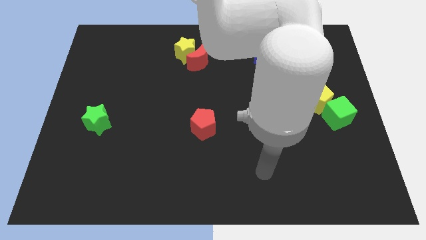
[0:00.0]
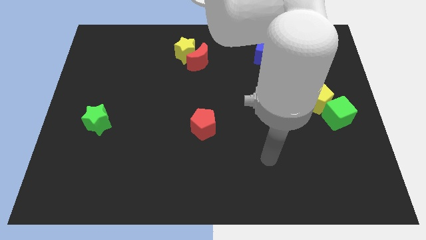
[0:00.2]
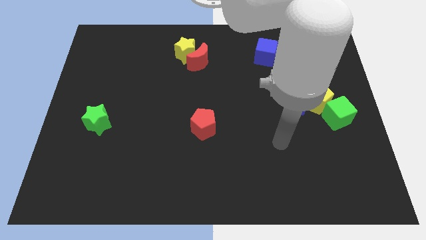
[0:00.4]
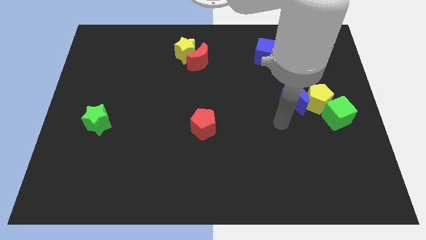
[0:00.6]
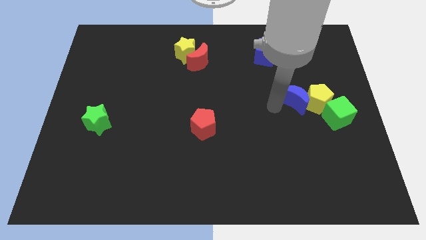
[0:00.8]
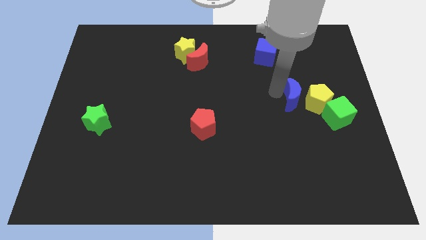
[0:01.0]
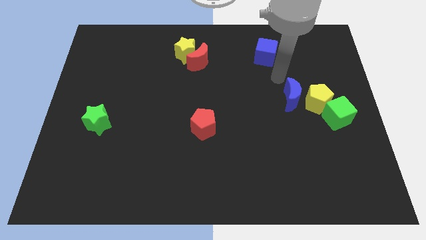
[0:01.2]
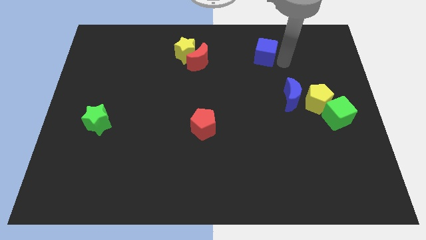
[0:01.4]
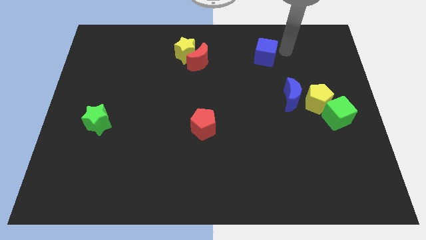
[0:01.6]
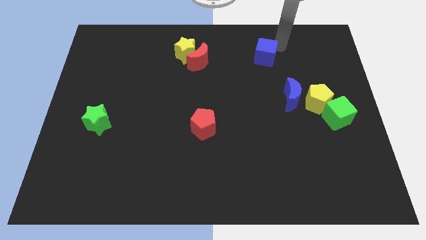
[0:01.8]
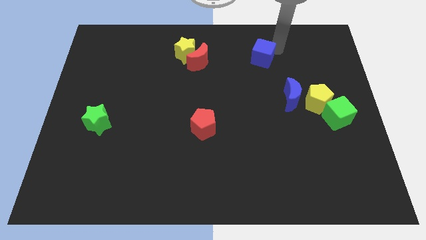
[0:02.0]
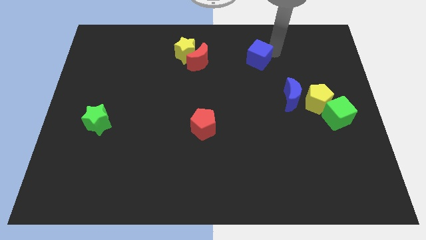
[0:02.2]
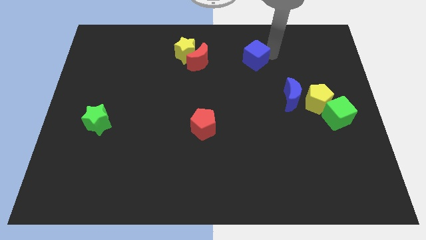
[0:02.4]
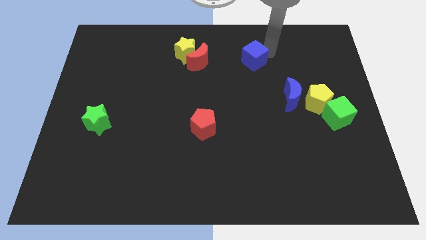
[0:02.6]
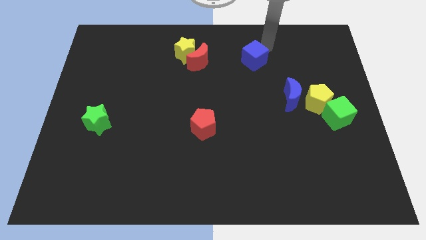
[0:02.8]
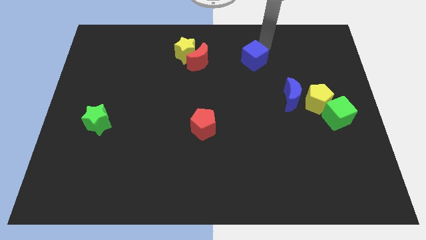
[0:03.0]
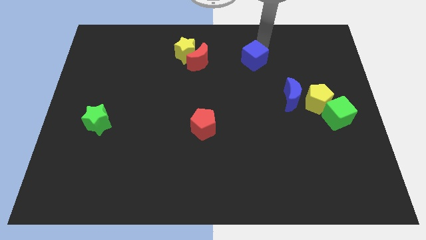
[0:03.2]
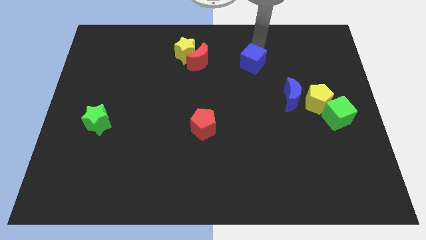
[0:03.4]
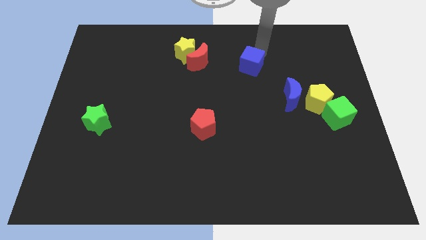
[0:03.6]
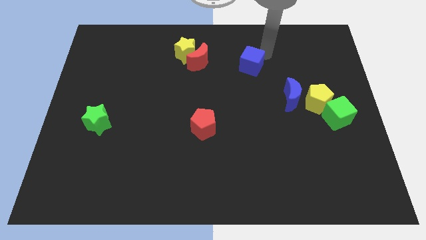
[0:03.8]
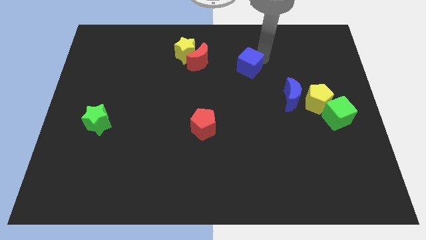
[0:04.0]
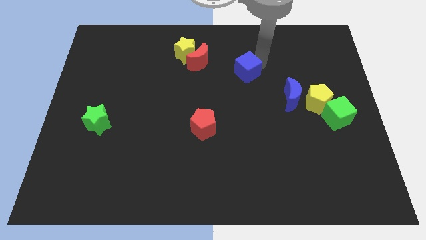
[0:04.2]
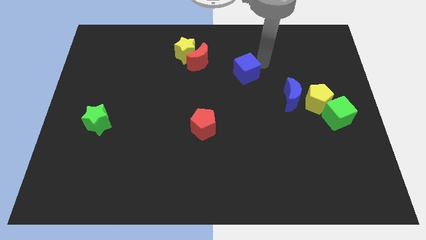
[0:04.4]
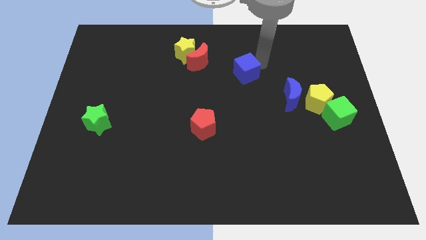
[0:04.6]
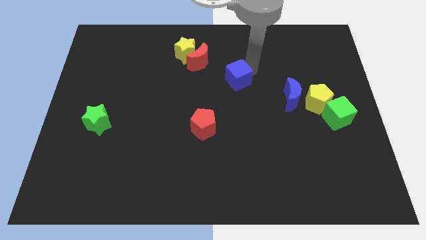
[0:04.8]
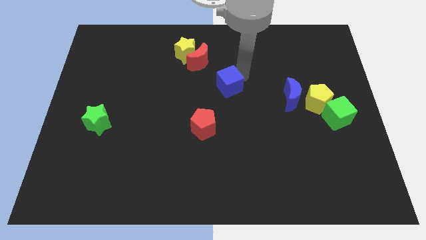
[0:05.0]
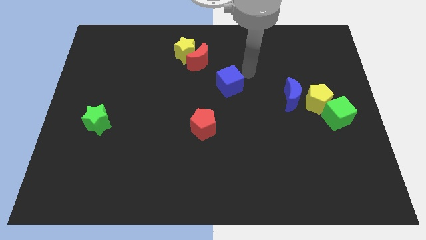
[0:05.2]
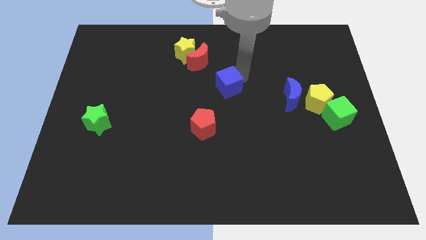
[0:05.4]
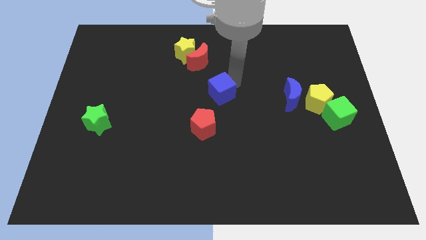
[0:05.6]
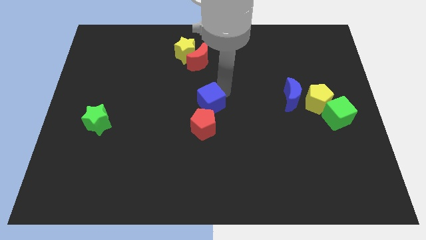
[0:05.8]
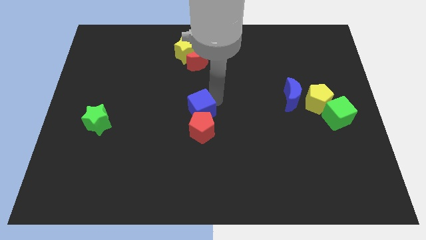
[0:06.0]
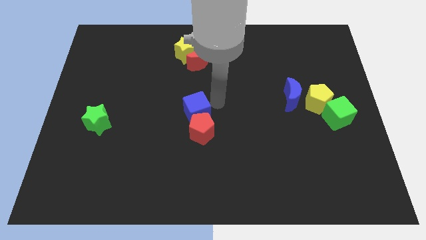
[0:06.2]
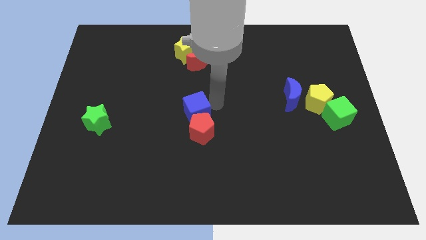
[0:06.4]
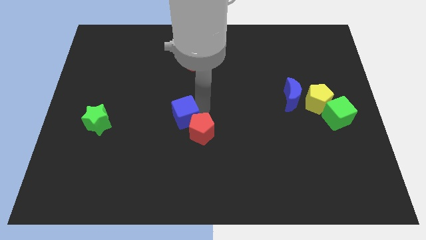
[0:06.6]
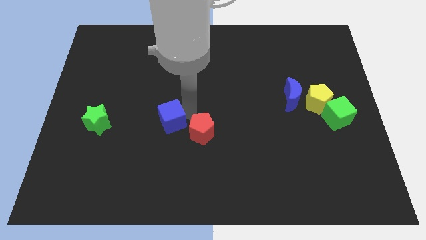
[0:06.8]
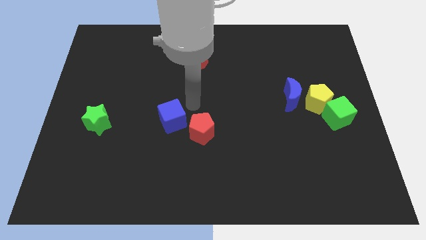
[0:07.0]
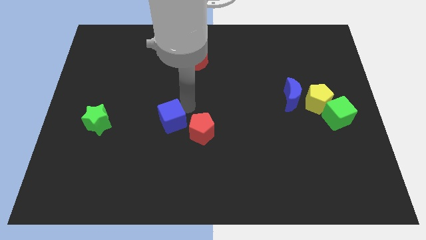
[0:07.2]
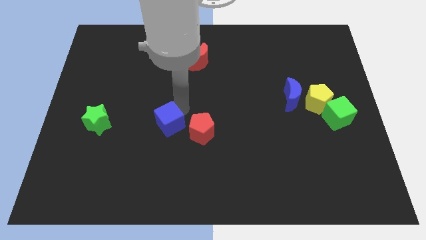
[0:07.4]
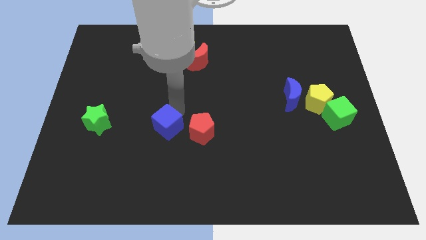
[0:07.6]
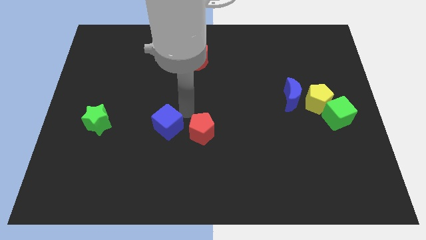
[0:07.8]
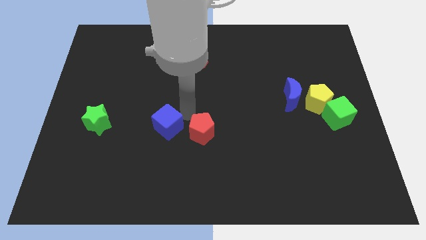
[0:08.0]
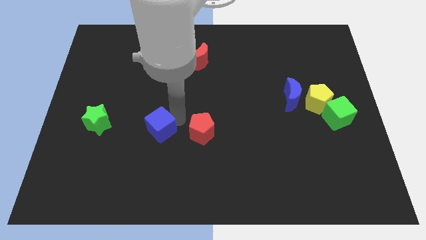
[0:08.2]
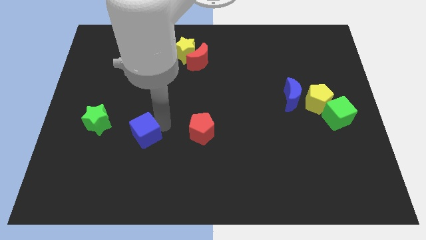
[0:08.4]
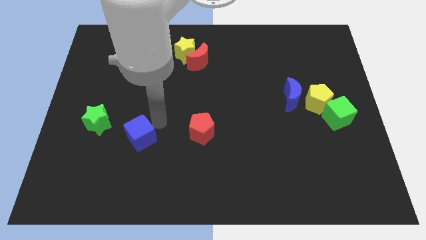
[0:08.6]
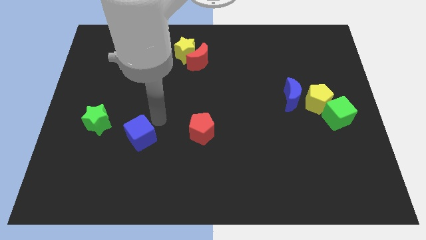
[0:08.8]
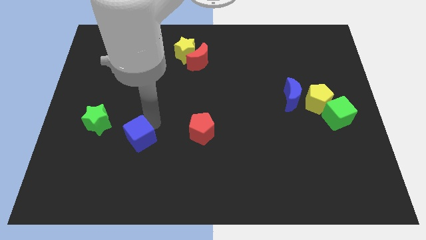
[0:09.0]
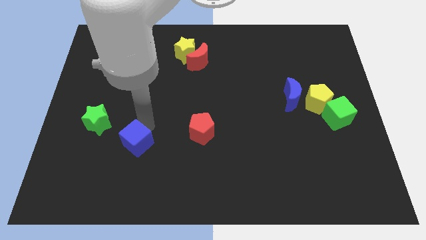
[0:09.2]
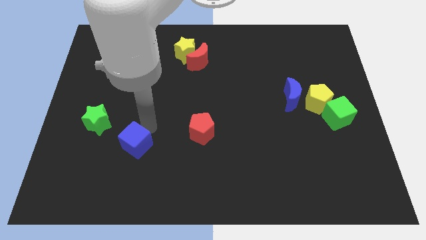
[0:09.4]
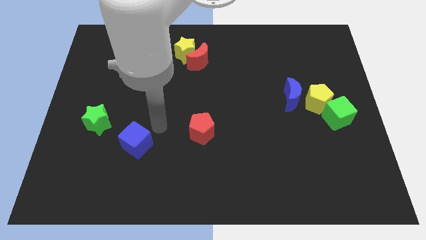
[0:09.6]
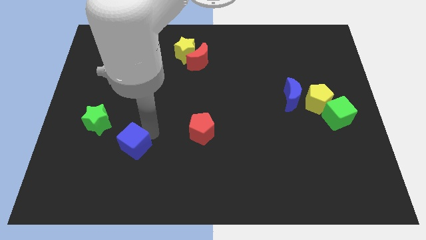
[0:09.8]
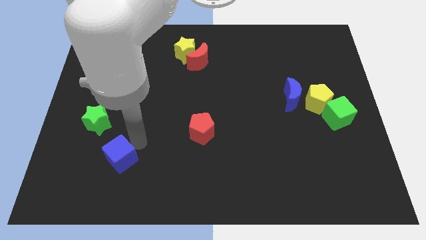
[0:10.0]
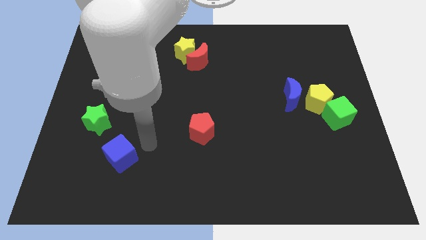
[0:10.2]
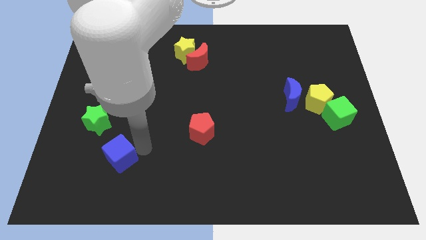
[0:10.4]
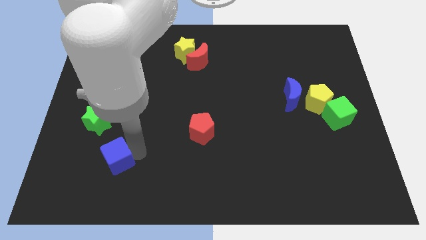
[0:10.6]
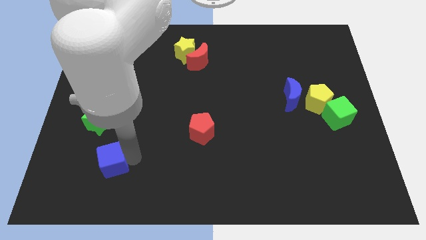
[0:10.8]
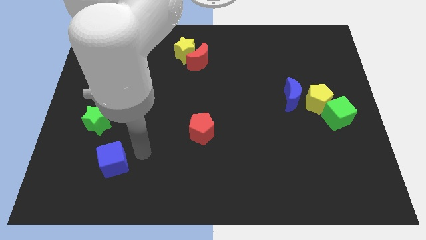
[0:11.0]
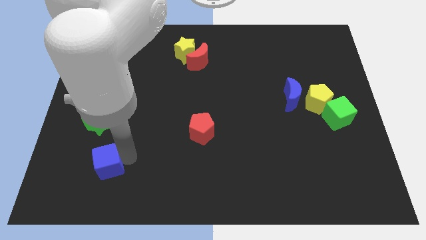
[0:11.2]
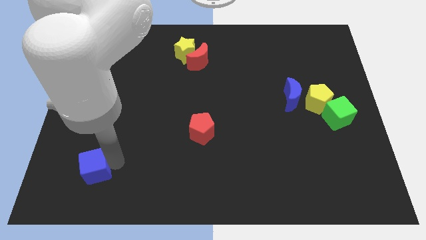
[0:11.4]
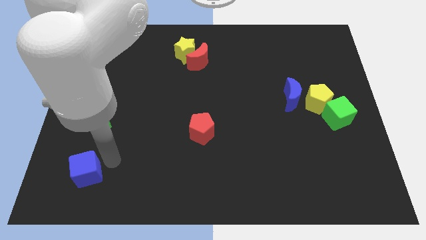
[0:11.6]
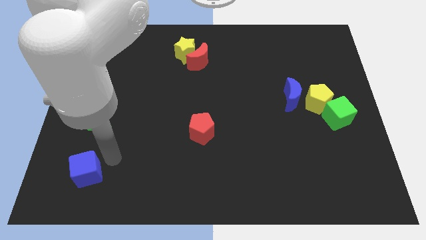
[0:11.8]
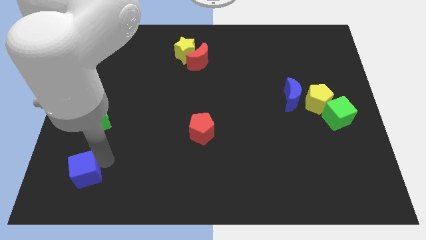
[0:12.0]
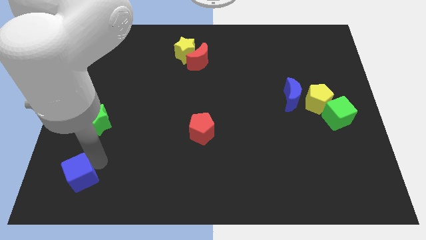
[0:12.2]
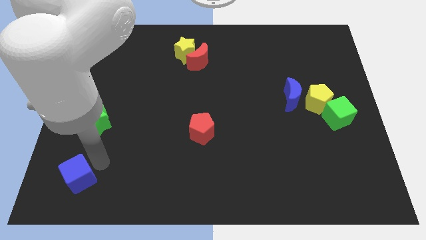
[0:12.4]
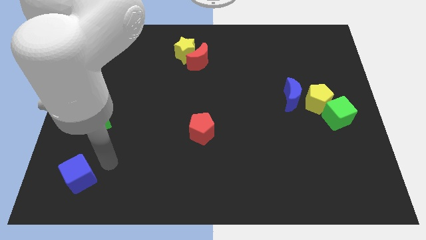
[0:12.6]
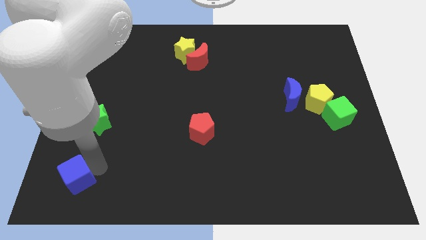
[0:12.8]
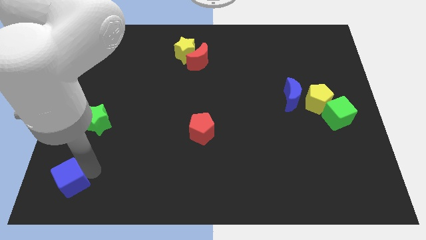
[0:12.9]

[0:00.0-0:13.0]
put the blue cube to the bottom left
